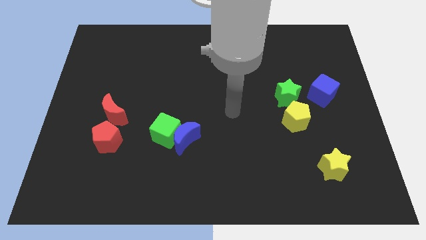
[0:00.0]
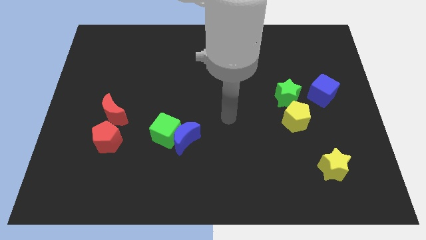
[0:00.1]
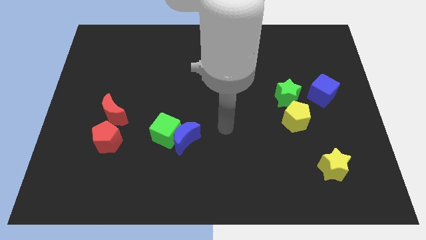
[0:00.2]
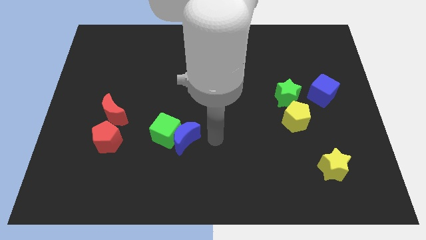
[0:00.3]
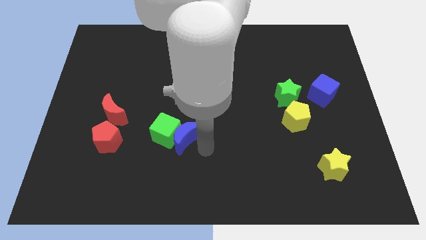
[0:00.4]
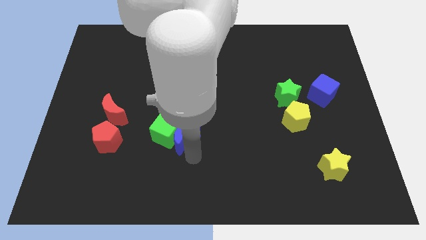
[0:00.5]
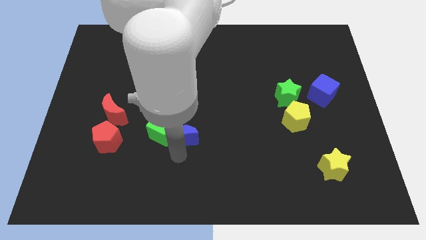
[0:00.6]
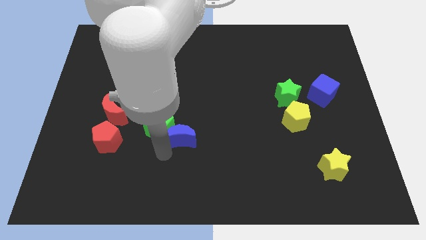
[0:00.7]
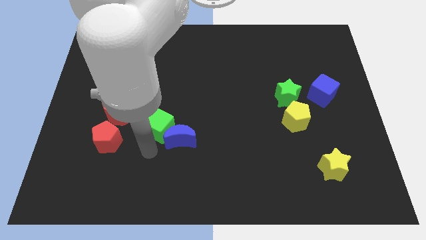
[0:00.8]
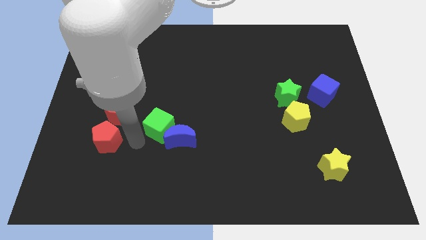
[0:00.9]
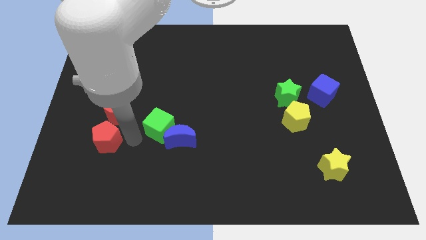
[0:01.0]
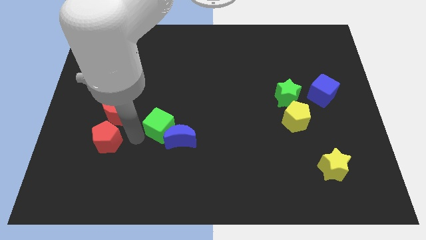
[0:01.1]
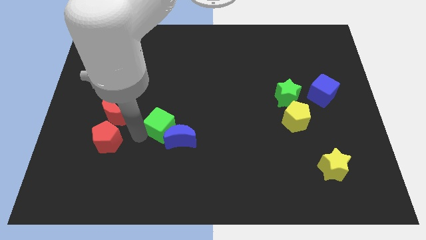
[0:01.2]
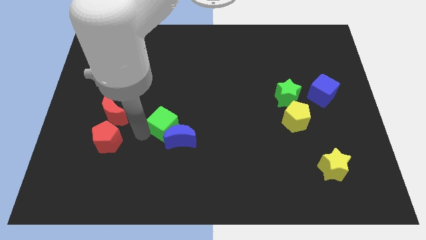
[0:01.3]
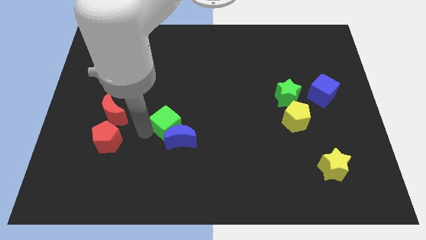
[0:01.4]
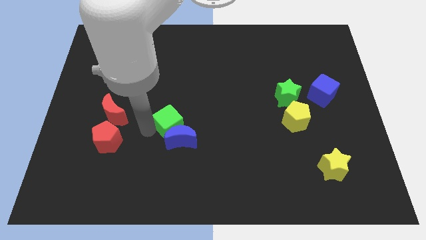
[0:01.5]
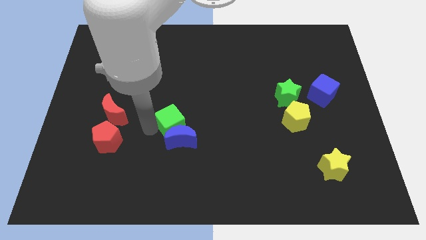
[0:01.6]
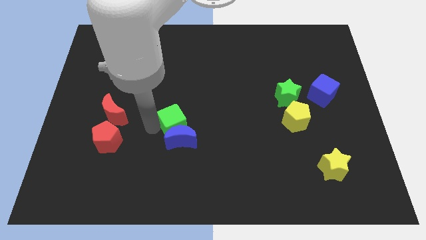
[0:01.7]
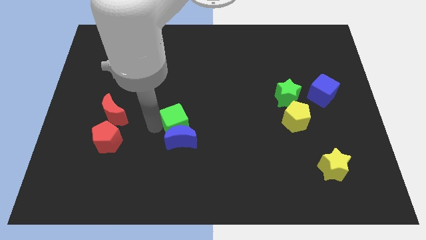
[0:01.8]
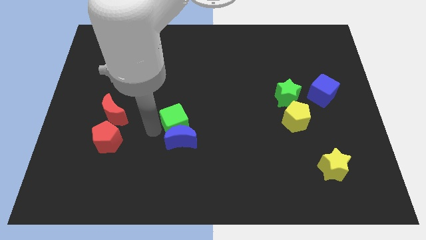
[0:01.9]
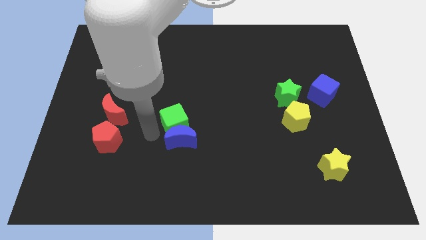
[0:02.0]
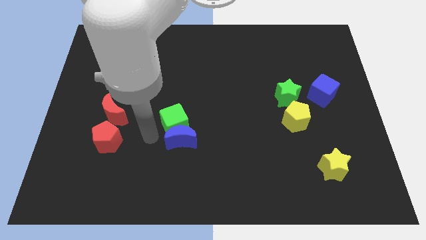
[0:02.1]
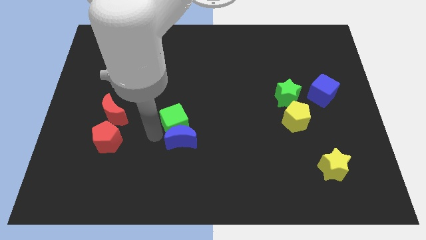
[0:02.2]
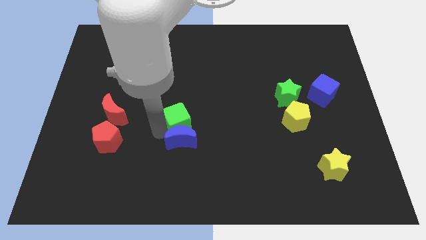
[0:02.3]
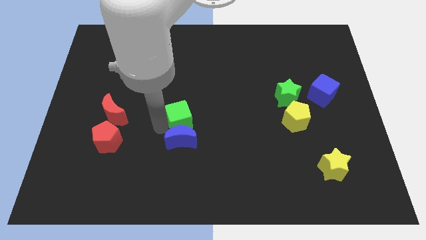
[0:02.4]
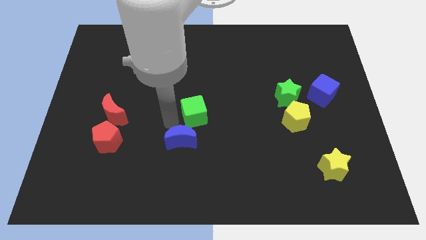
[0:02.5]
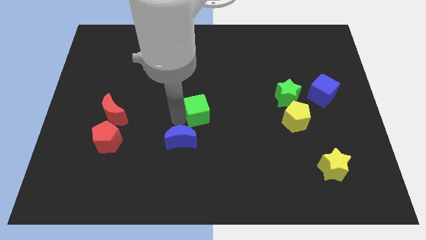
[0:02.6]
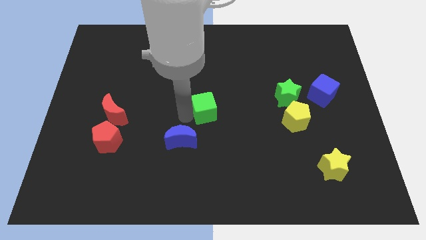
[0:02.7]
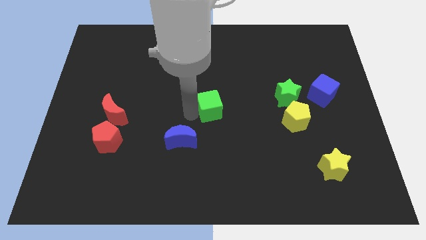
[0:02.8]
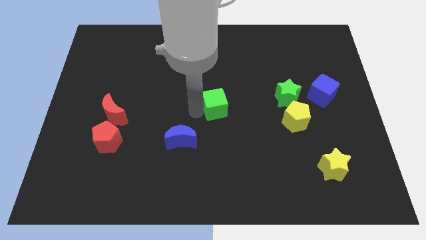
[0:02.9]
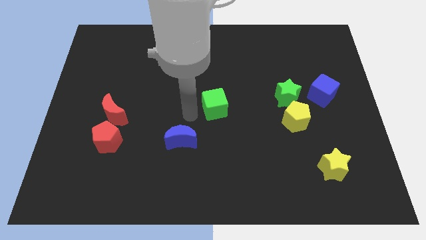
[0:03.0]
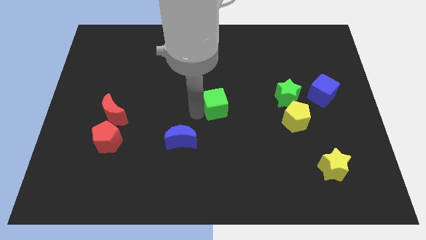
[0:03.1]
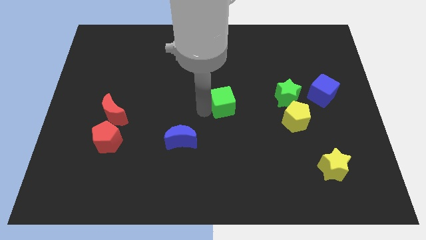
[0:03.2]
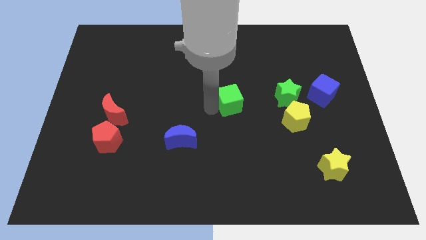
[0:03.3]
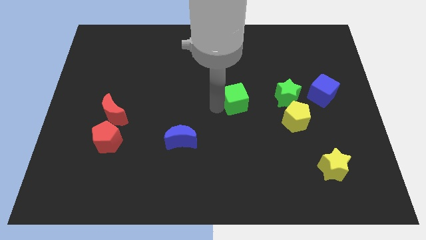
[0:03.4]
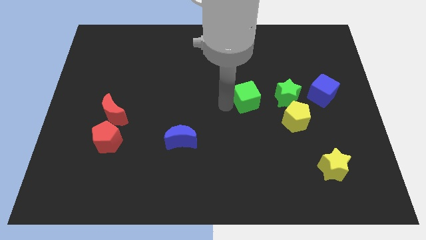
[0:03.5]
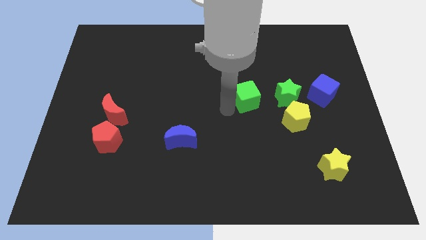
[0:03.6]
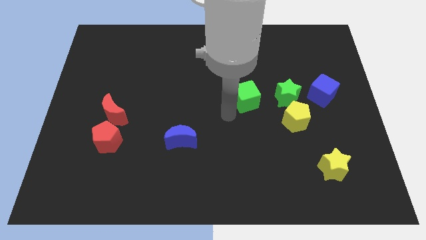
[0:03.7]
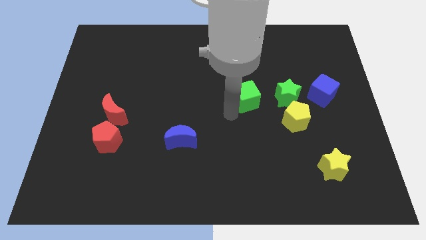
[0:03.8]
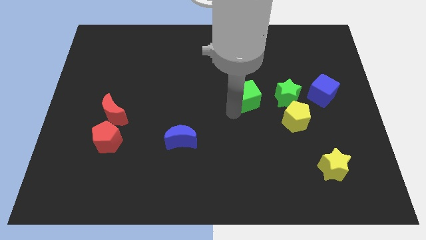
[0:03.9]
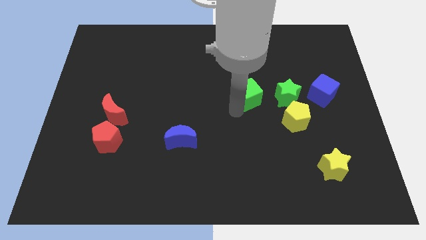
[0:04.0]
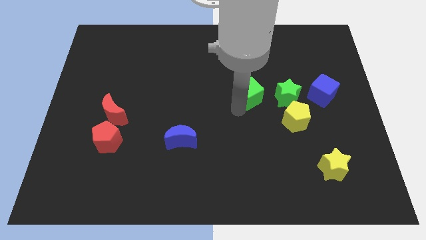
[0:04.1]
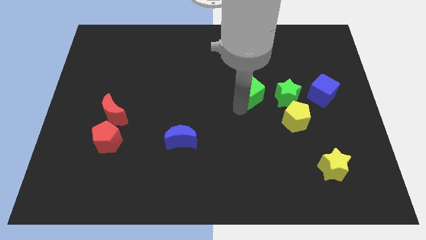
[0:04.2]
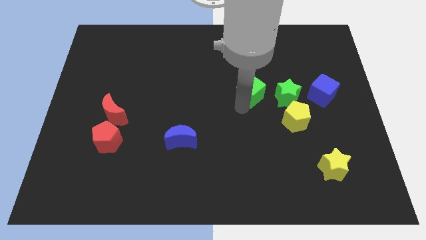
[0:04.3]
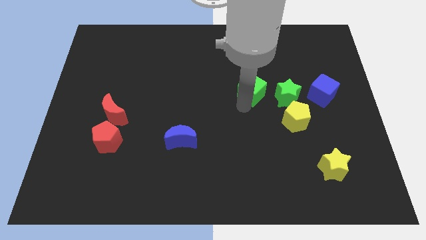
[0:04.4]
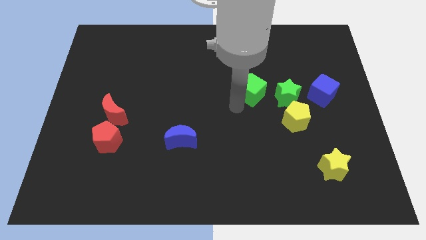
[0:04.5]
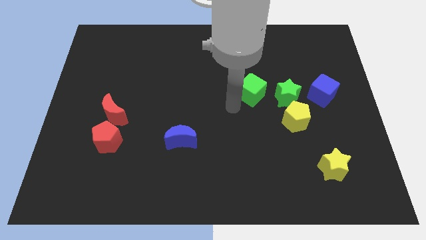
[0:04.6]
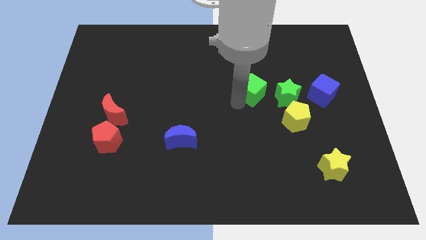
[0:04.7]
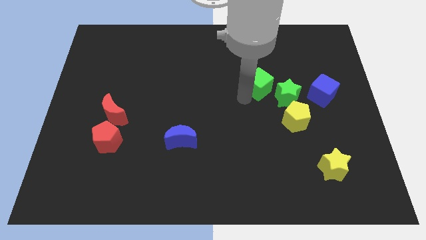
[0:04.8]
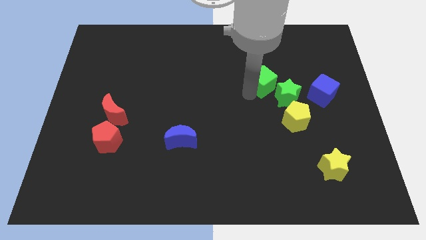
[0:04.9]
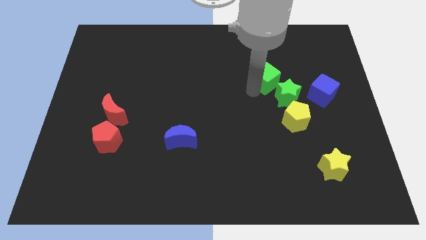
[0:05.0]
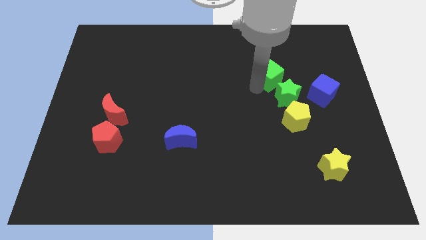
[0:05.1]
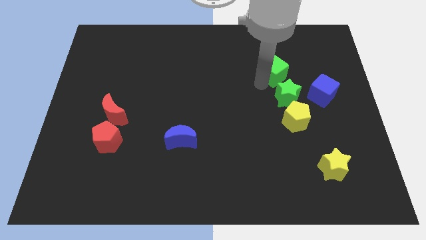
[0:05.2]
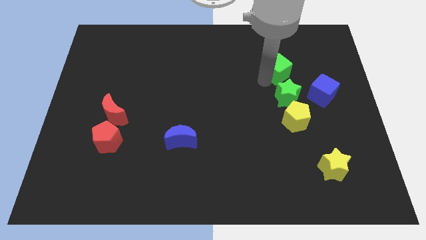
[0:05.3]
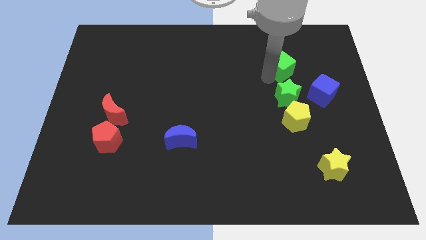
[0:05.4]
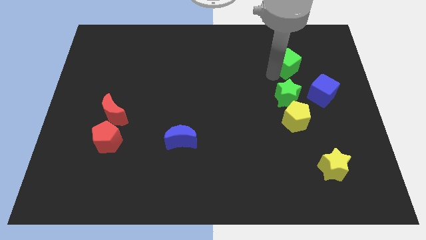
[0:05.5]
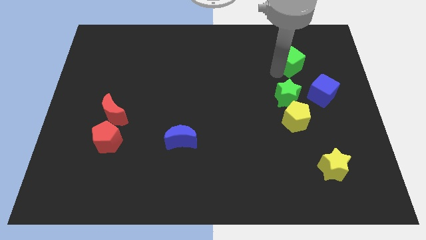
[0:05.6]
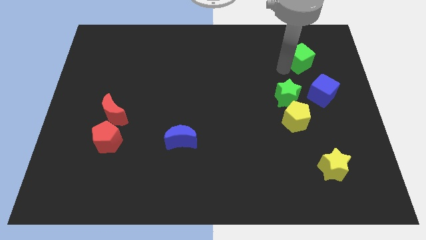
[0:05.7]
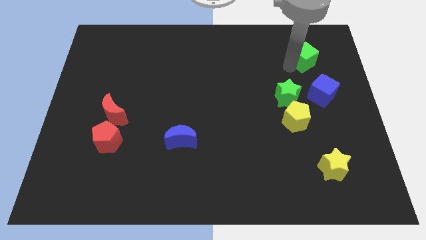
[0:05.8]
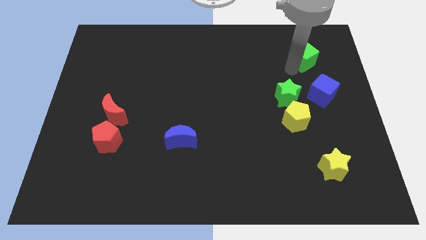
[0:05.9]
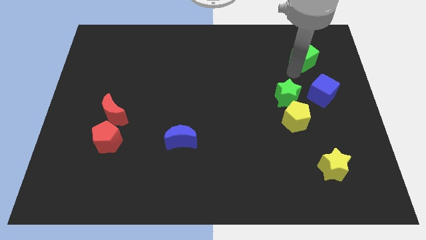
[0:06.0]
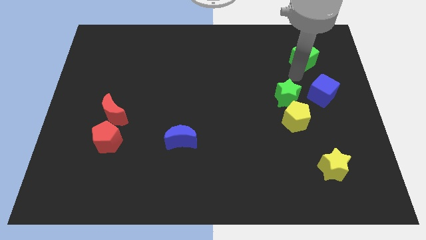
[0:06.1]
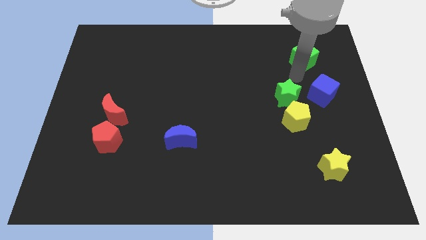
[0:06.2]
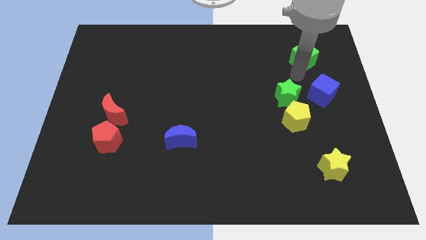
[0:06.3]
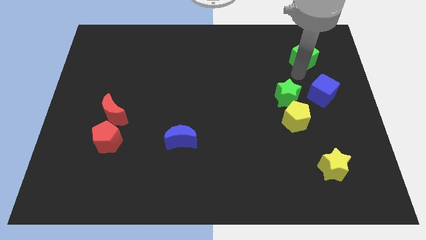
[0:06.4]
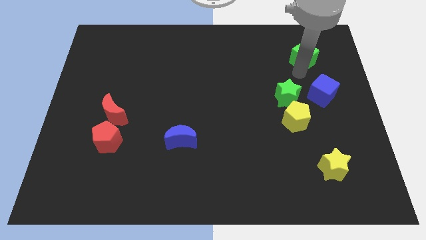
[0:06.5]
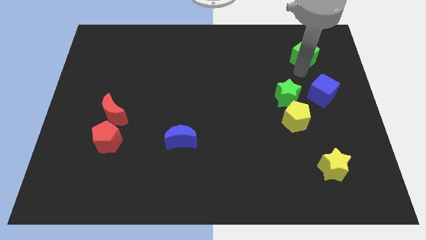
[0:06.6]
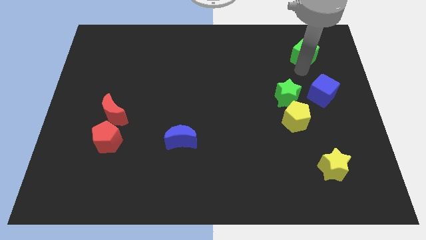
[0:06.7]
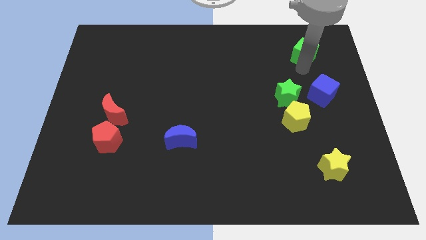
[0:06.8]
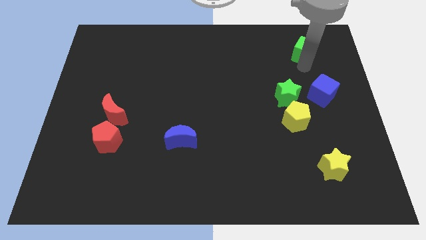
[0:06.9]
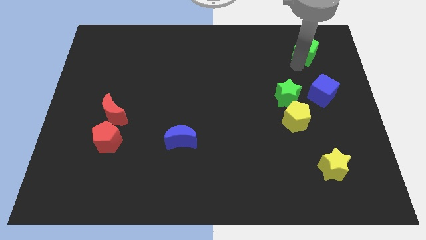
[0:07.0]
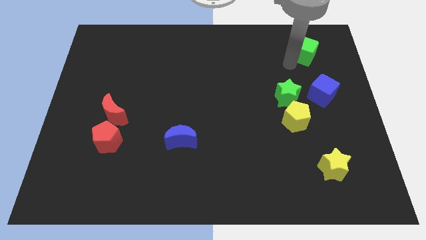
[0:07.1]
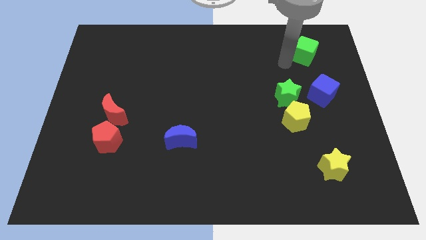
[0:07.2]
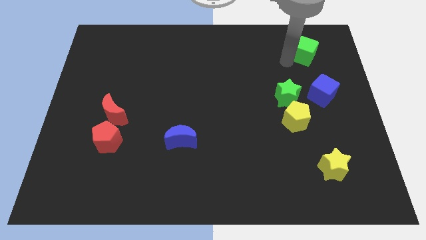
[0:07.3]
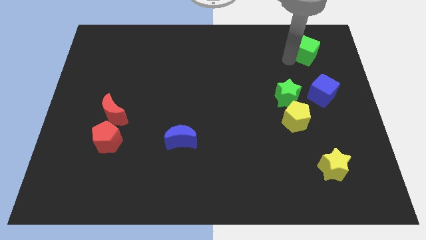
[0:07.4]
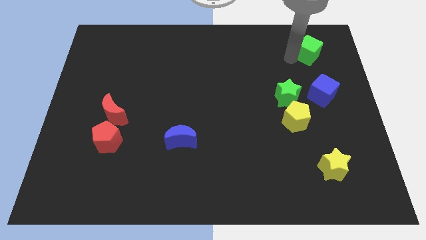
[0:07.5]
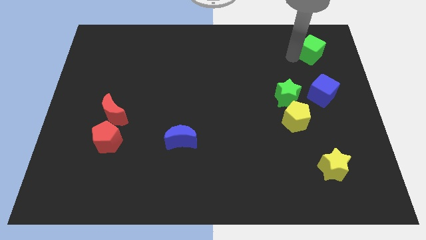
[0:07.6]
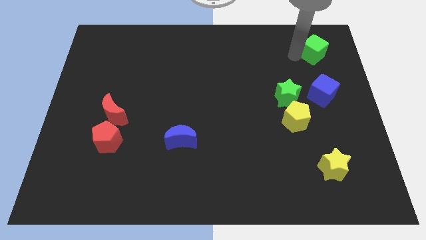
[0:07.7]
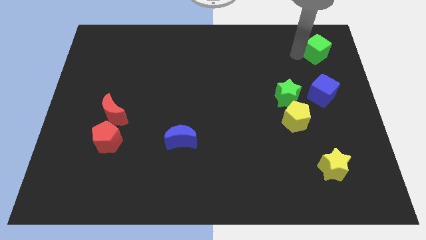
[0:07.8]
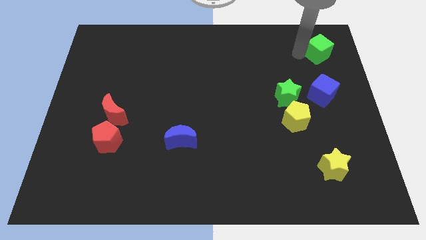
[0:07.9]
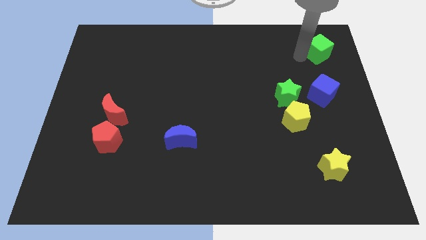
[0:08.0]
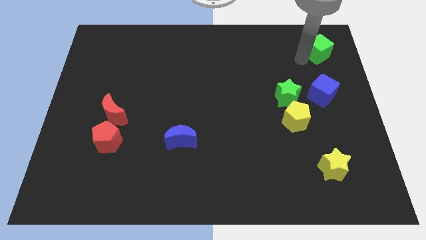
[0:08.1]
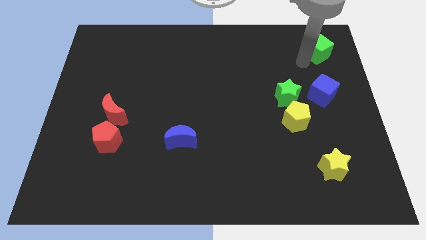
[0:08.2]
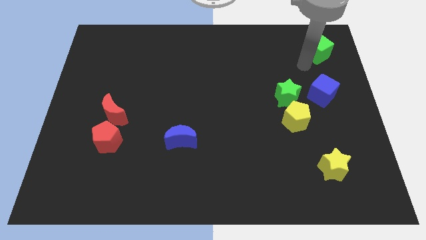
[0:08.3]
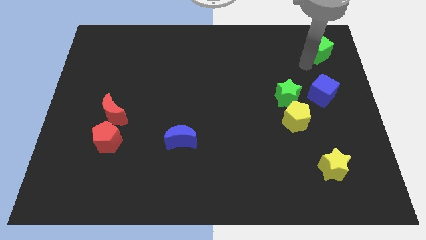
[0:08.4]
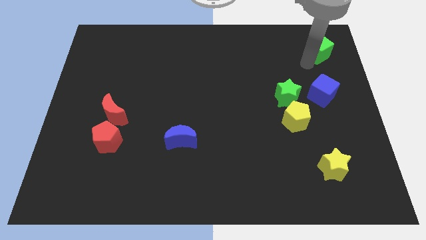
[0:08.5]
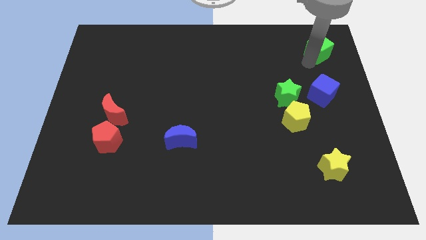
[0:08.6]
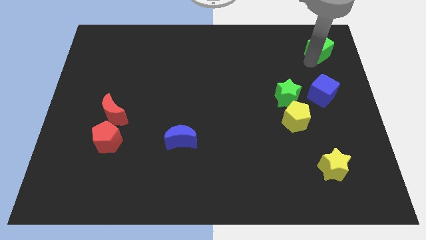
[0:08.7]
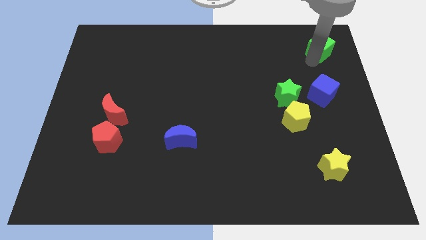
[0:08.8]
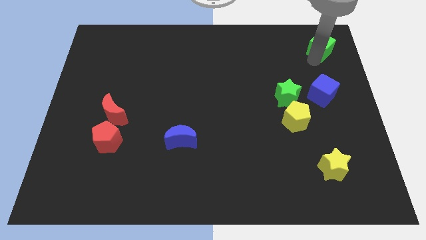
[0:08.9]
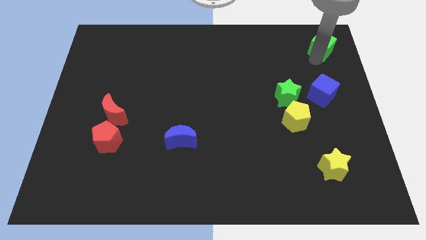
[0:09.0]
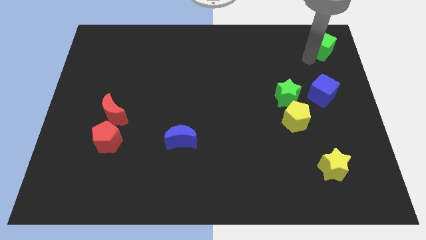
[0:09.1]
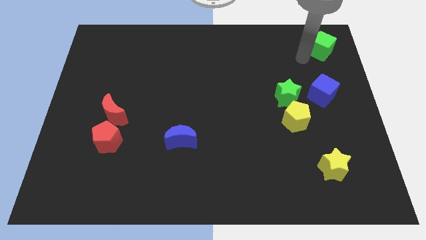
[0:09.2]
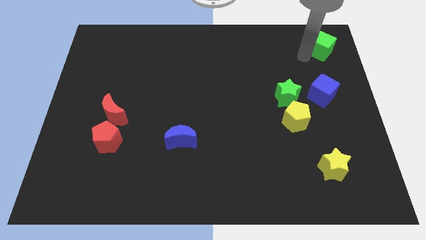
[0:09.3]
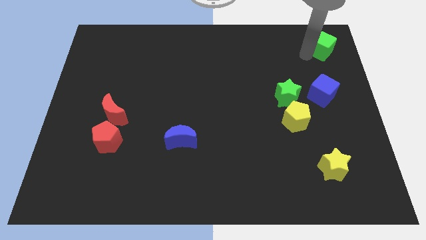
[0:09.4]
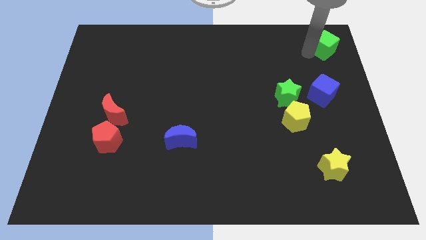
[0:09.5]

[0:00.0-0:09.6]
push the green cube to the upper right corner
